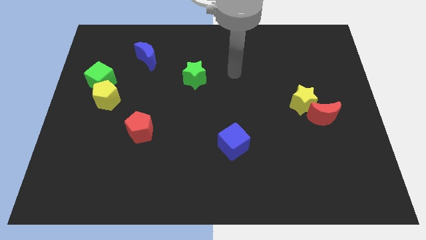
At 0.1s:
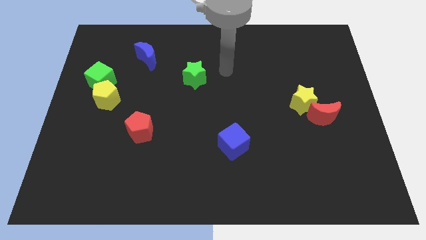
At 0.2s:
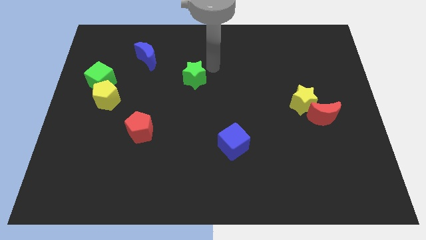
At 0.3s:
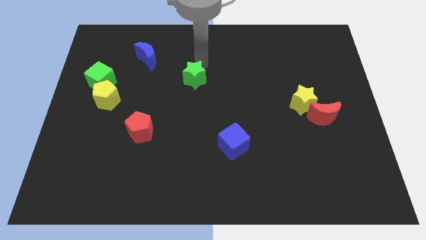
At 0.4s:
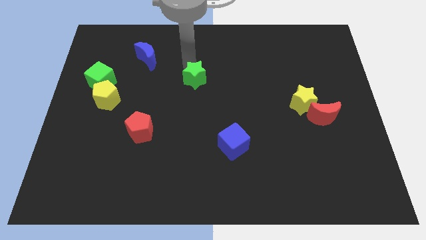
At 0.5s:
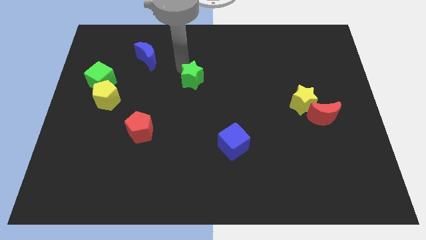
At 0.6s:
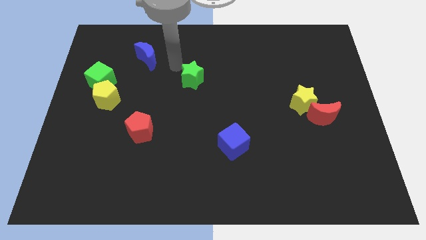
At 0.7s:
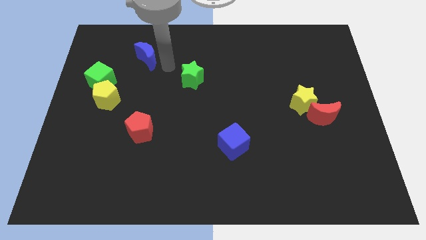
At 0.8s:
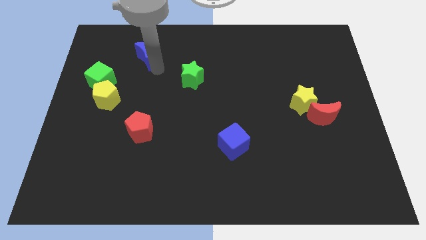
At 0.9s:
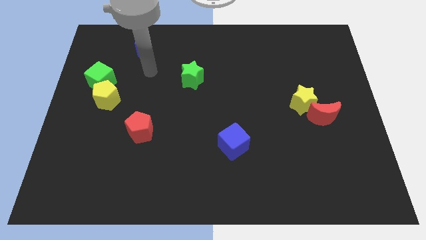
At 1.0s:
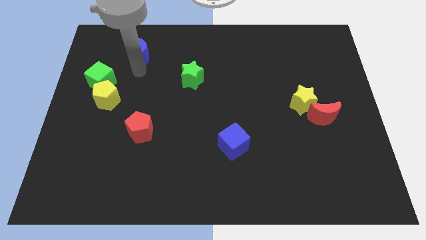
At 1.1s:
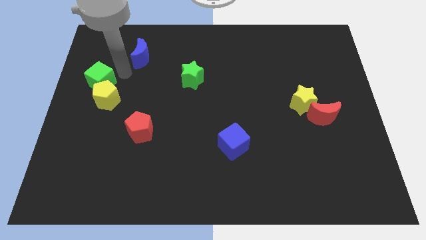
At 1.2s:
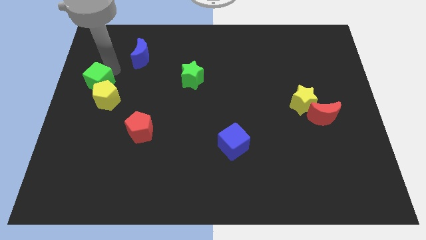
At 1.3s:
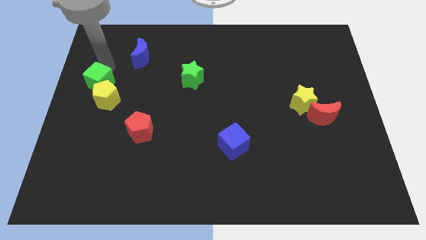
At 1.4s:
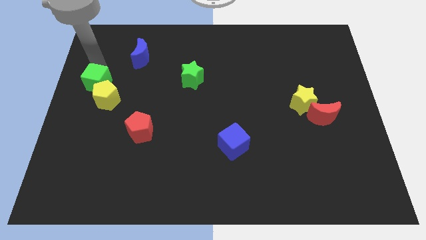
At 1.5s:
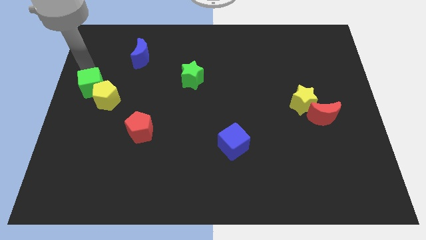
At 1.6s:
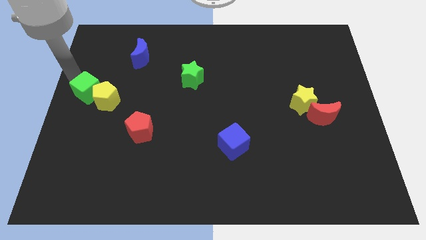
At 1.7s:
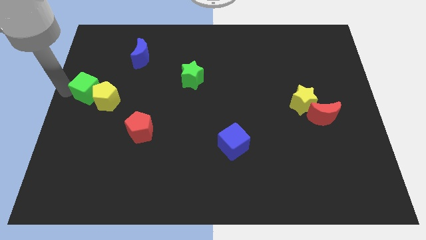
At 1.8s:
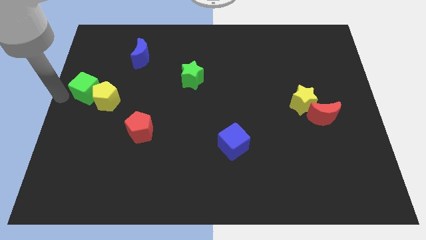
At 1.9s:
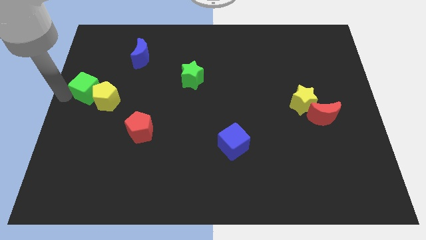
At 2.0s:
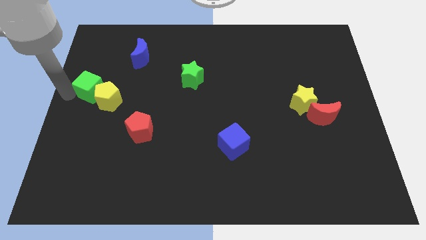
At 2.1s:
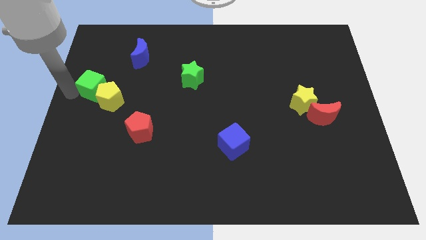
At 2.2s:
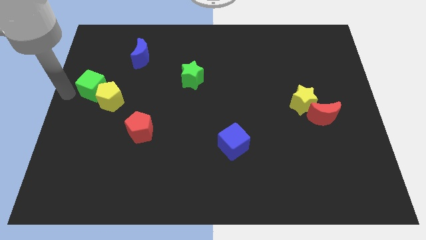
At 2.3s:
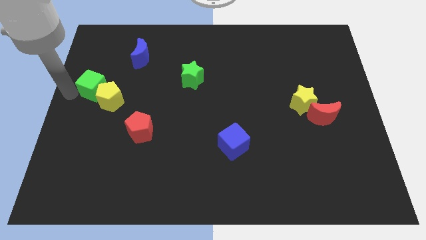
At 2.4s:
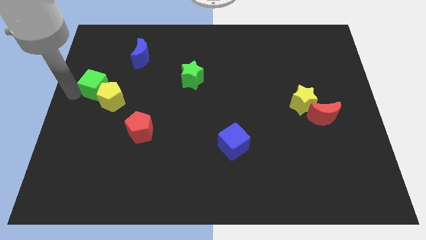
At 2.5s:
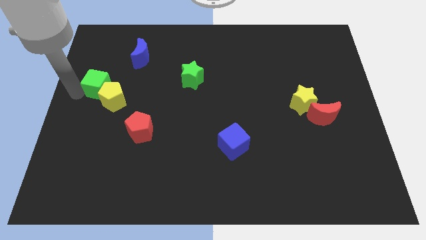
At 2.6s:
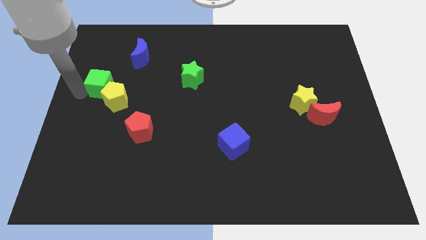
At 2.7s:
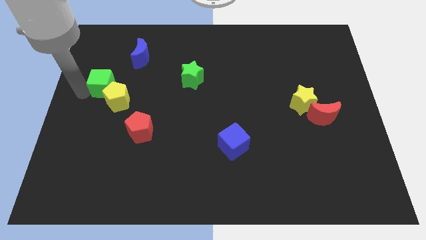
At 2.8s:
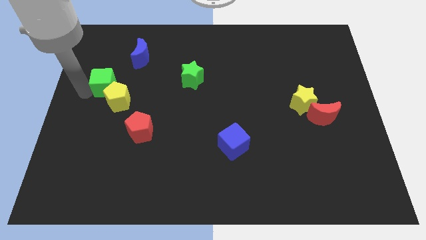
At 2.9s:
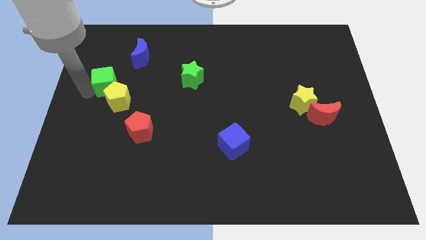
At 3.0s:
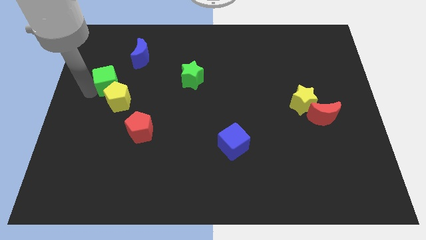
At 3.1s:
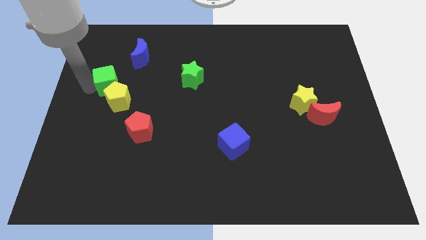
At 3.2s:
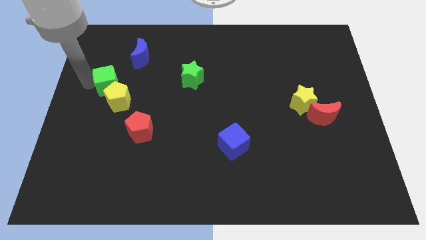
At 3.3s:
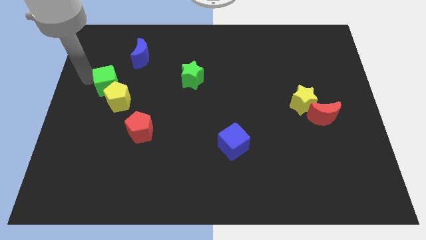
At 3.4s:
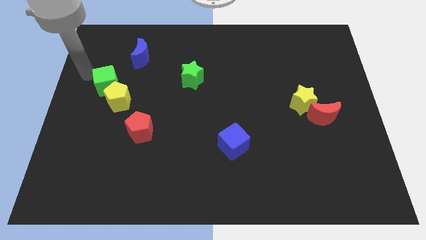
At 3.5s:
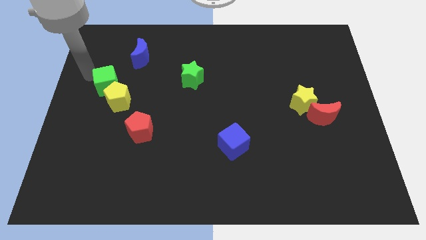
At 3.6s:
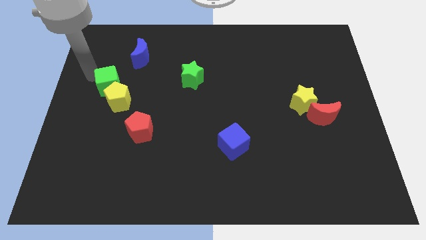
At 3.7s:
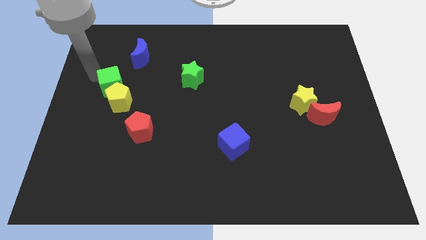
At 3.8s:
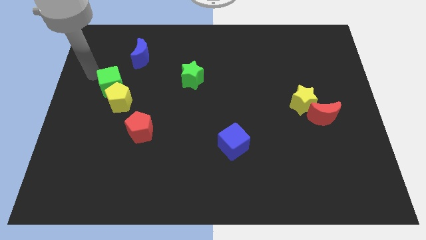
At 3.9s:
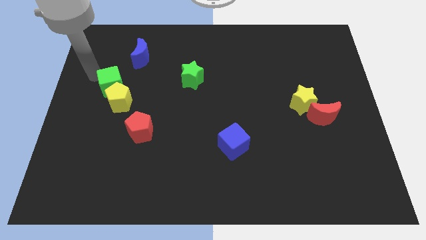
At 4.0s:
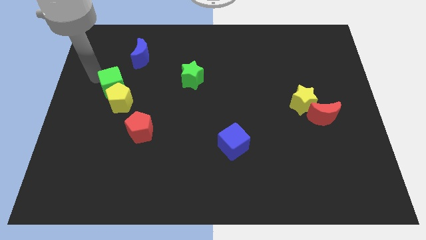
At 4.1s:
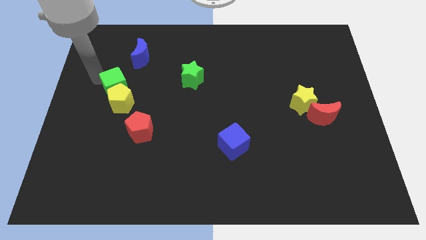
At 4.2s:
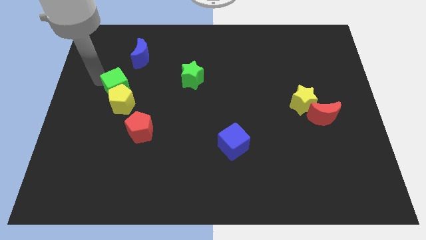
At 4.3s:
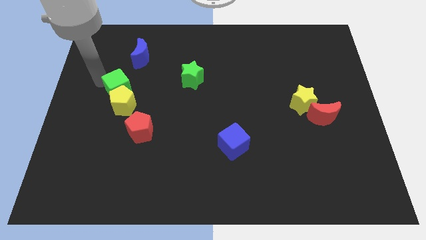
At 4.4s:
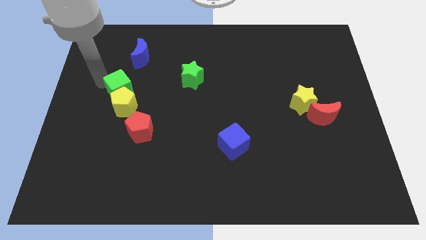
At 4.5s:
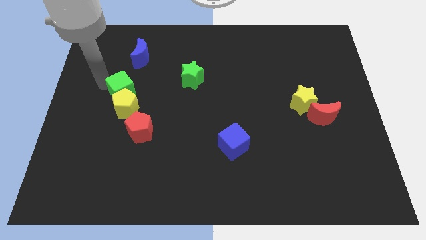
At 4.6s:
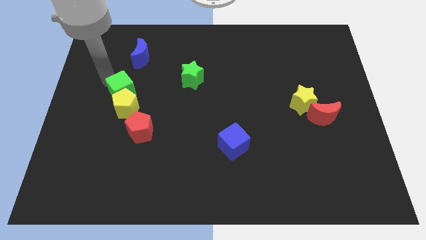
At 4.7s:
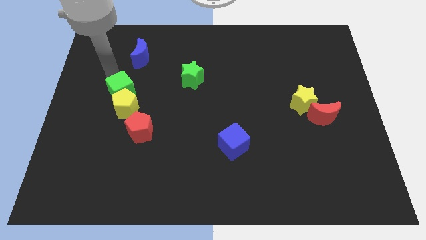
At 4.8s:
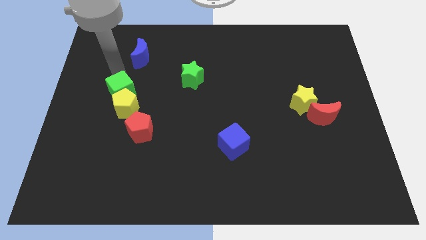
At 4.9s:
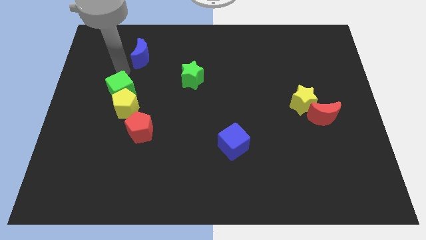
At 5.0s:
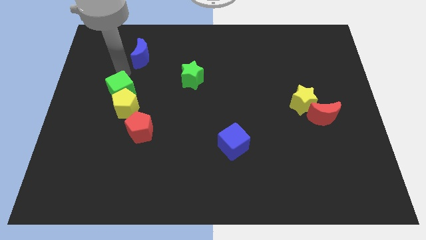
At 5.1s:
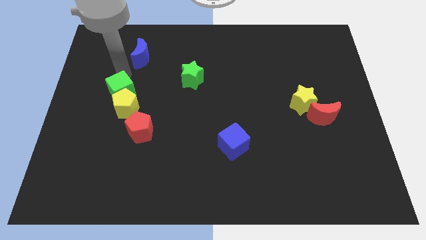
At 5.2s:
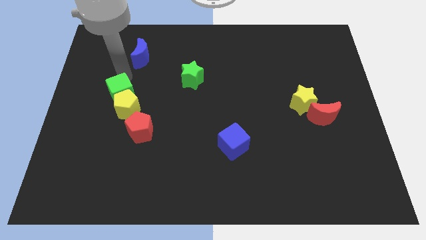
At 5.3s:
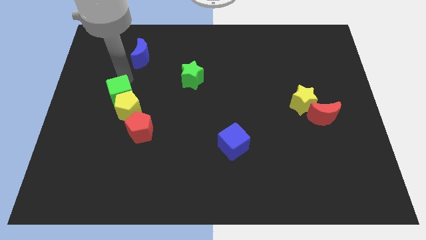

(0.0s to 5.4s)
move the green cube diagonally up and to the left of the red pentagon

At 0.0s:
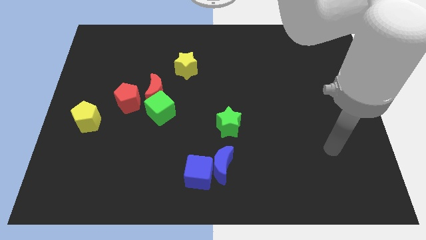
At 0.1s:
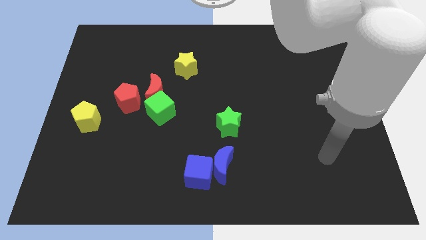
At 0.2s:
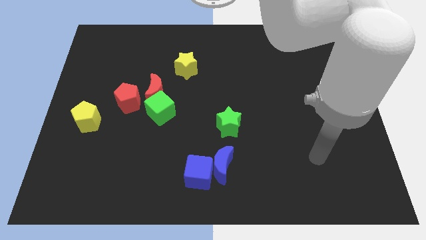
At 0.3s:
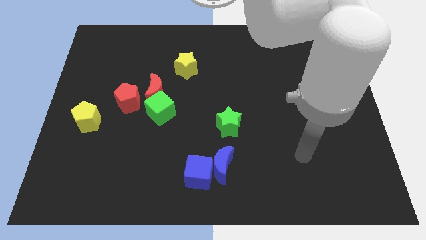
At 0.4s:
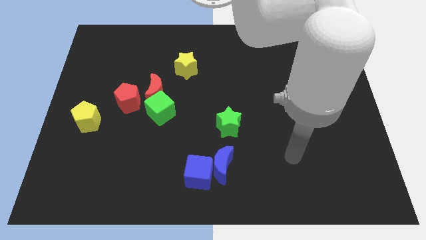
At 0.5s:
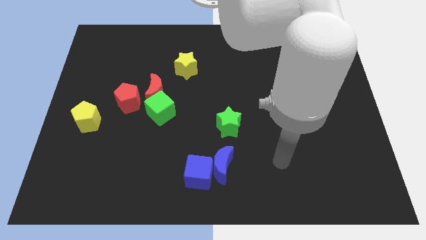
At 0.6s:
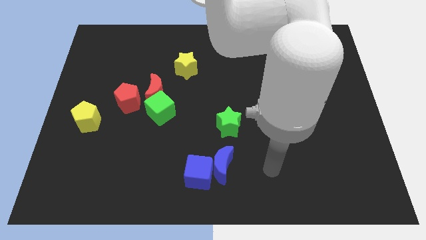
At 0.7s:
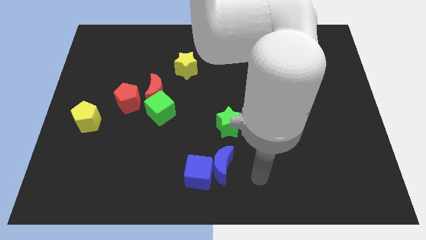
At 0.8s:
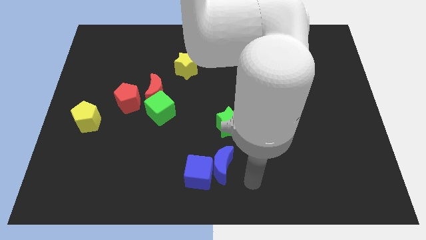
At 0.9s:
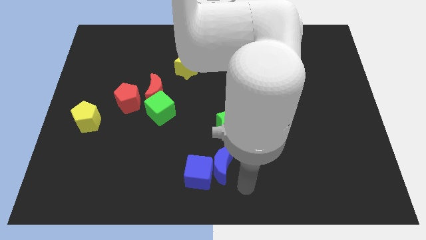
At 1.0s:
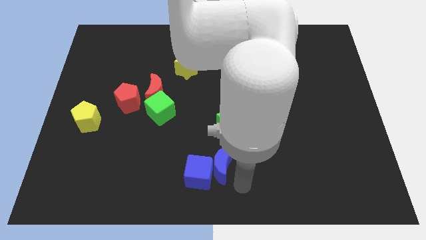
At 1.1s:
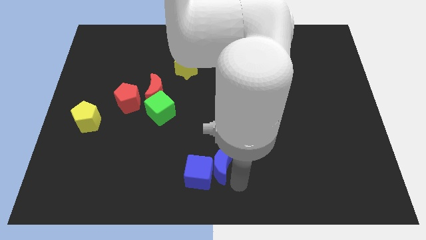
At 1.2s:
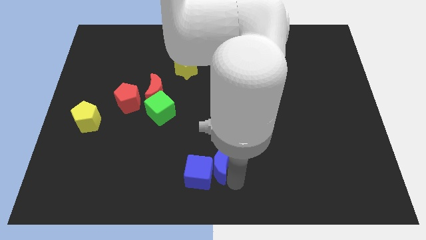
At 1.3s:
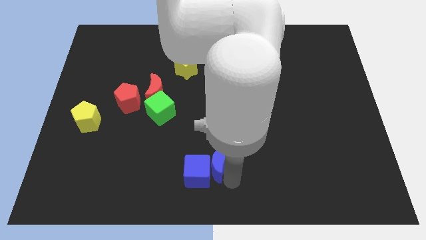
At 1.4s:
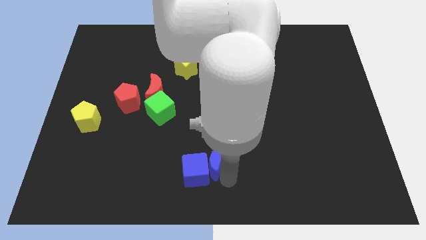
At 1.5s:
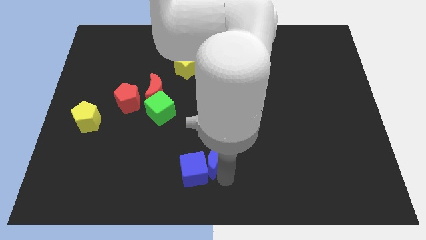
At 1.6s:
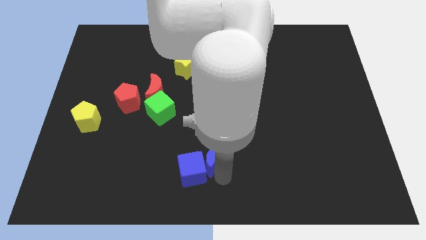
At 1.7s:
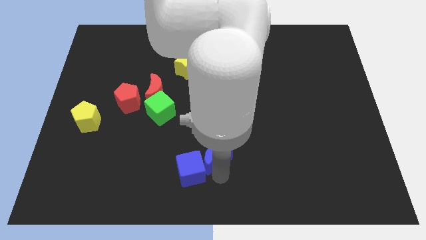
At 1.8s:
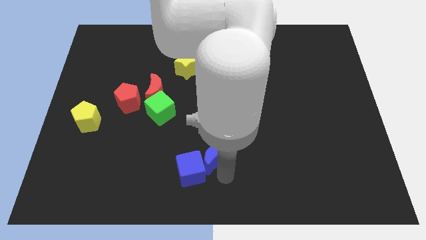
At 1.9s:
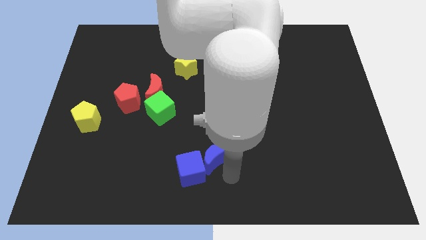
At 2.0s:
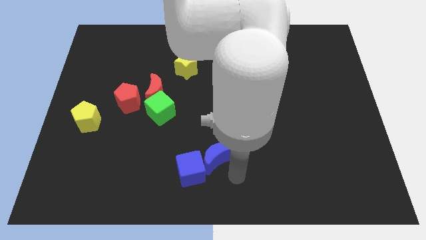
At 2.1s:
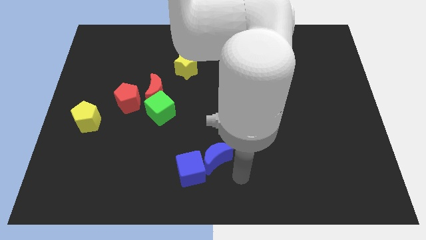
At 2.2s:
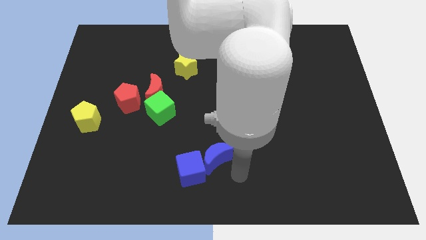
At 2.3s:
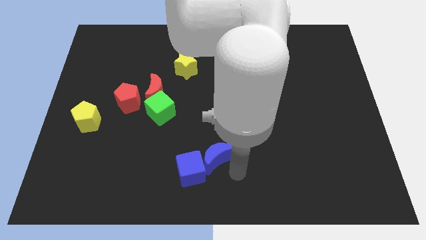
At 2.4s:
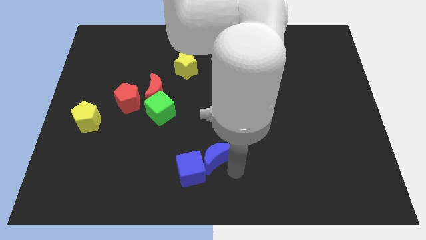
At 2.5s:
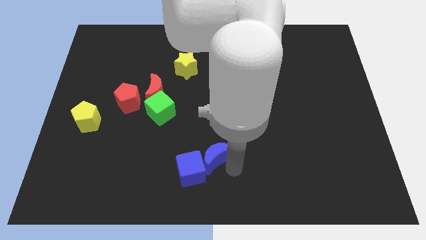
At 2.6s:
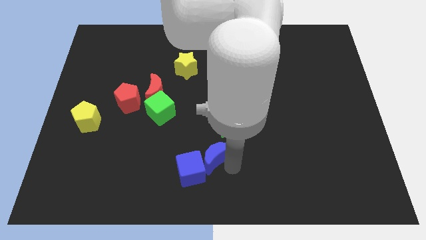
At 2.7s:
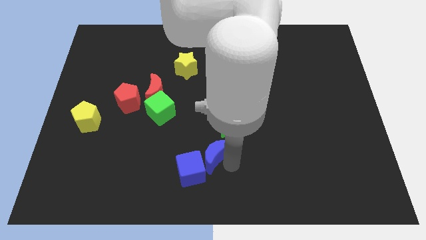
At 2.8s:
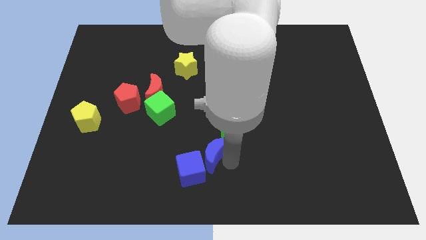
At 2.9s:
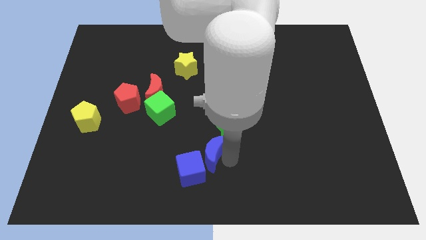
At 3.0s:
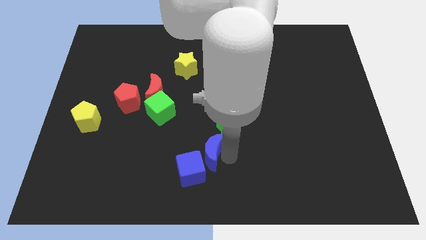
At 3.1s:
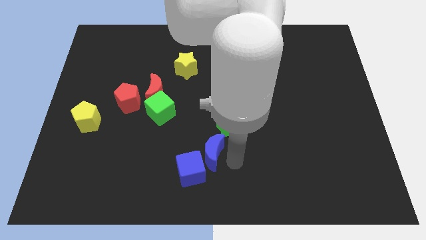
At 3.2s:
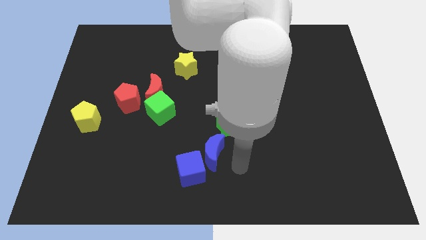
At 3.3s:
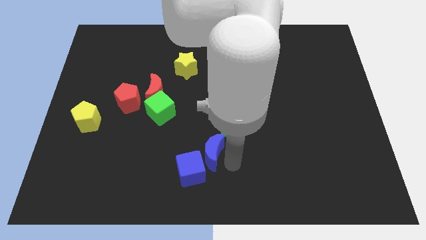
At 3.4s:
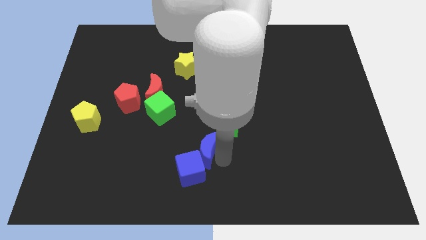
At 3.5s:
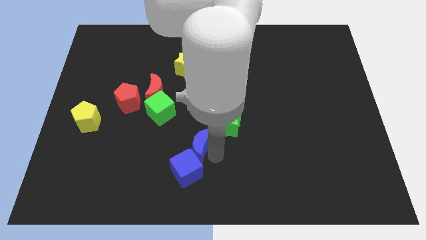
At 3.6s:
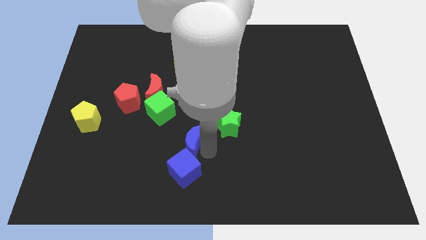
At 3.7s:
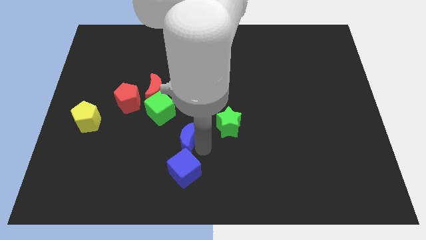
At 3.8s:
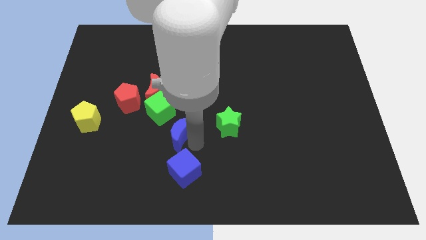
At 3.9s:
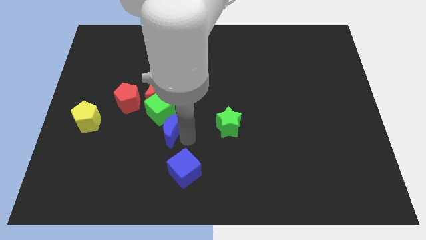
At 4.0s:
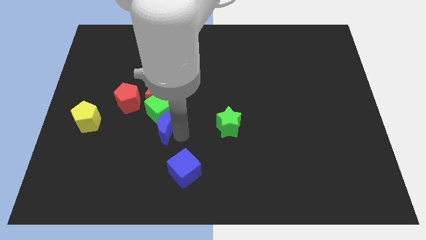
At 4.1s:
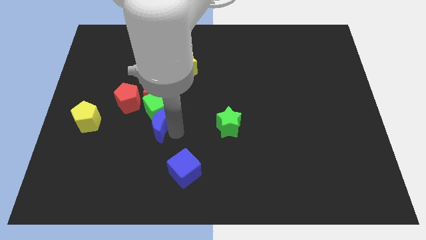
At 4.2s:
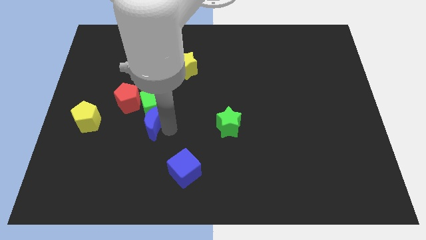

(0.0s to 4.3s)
push the blue moon right of the yellow pentagon
